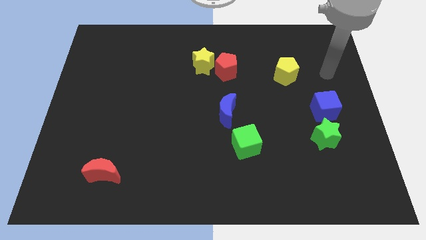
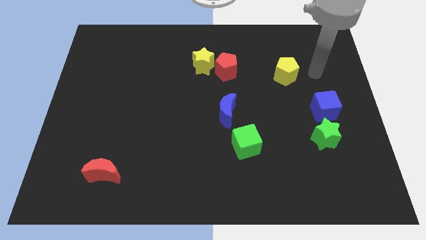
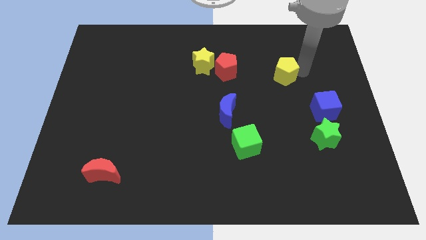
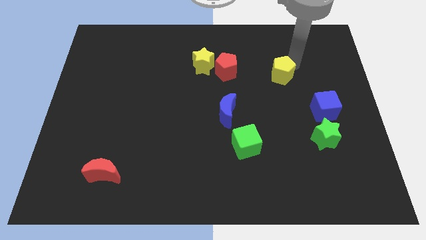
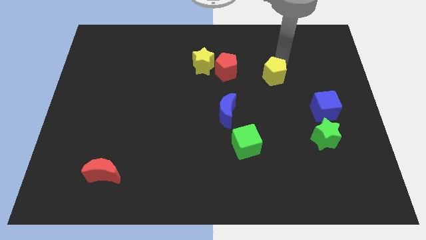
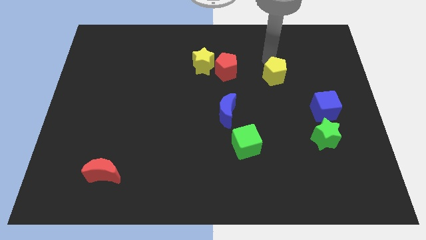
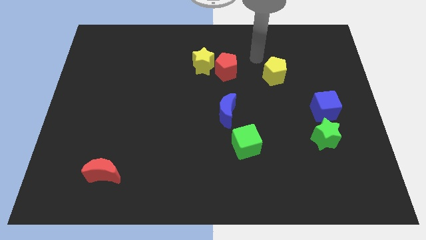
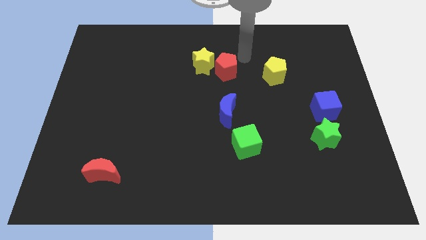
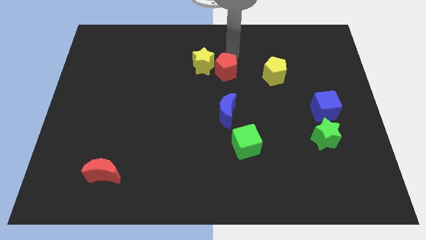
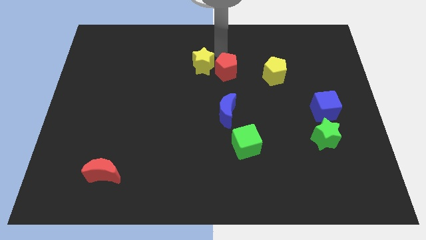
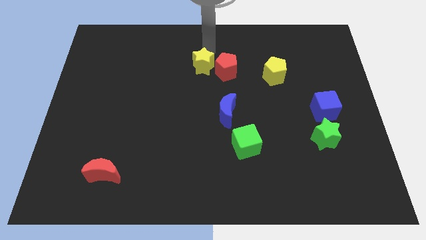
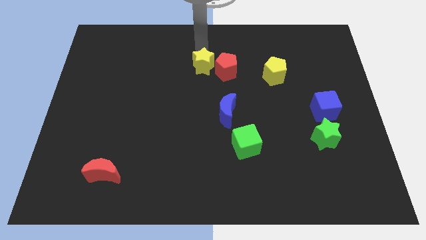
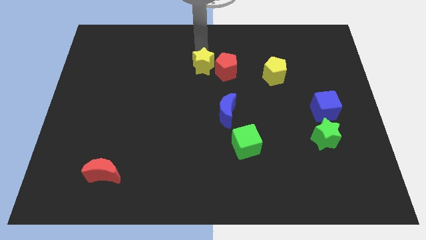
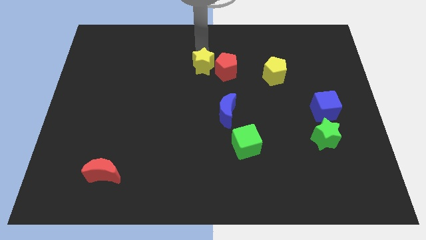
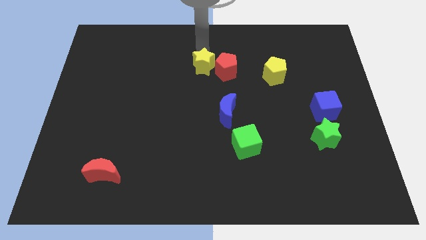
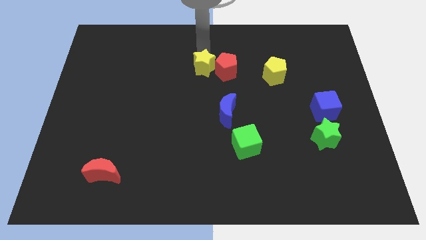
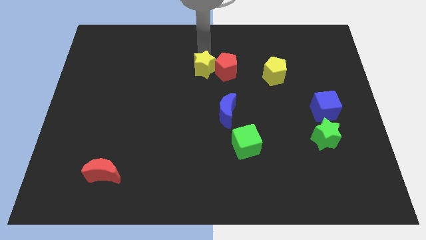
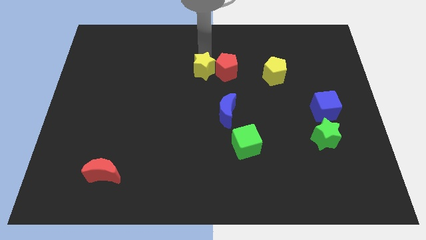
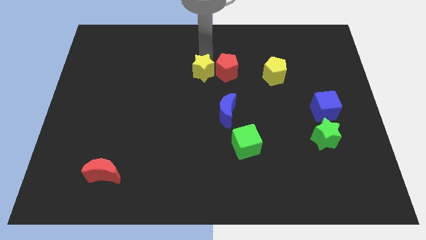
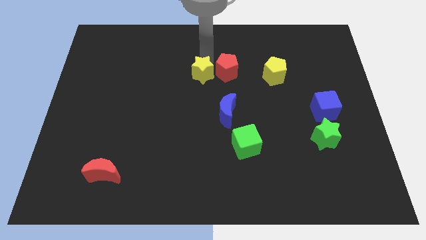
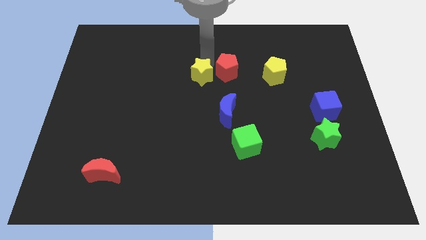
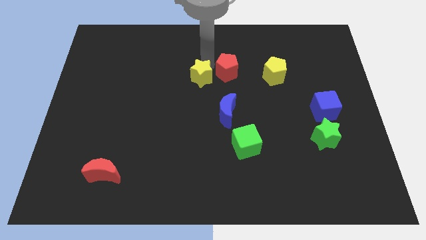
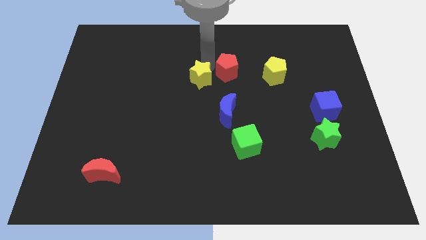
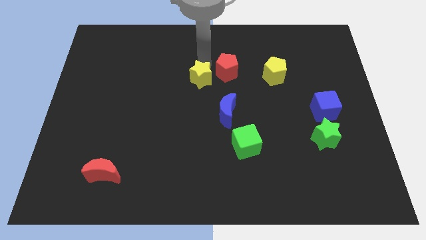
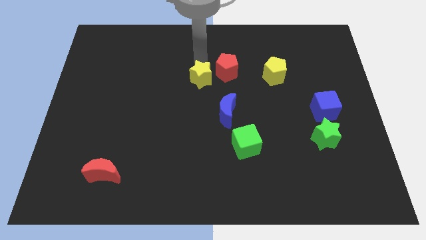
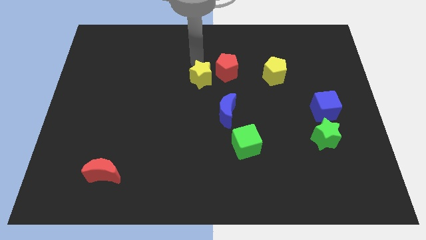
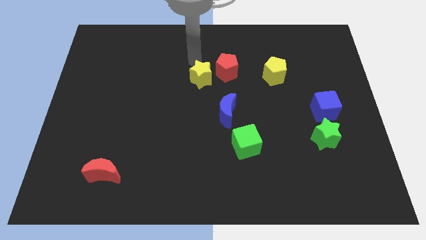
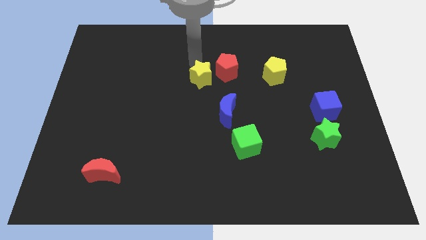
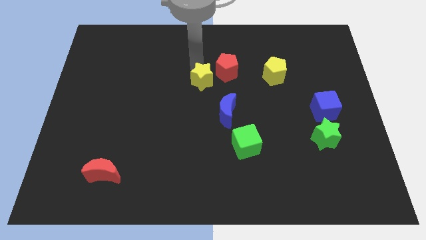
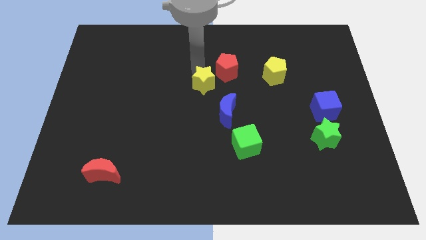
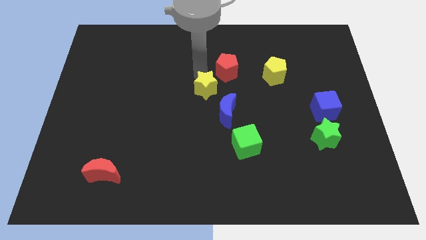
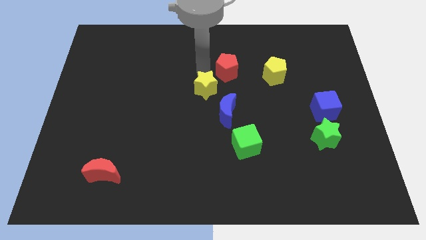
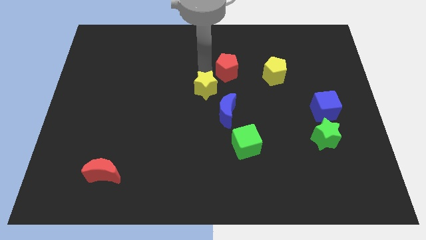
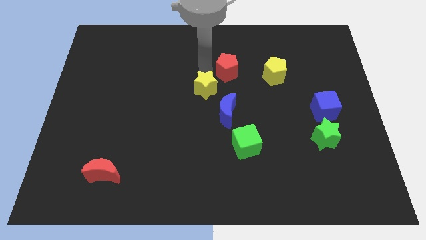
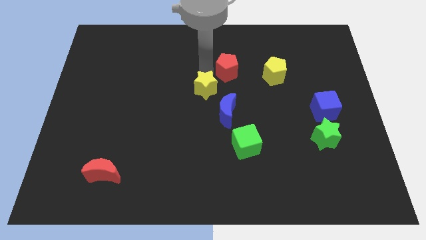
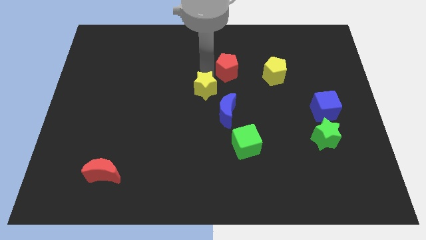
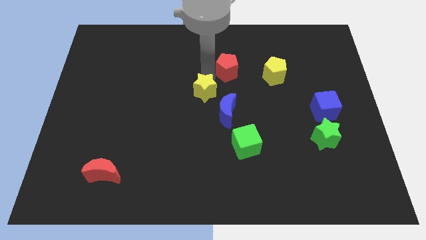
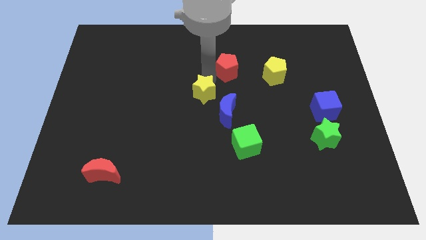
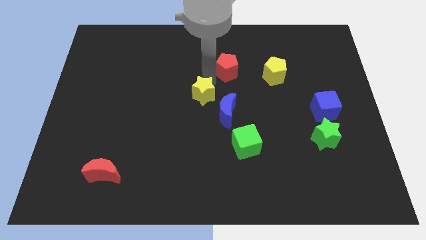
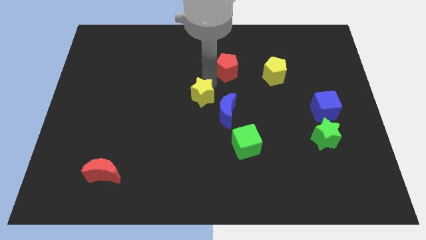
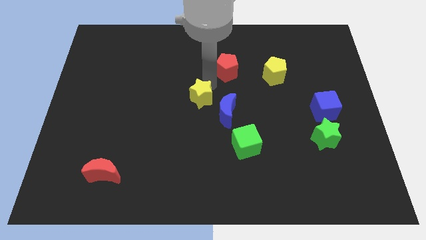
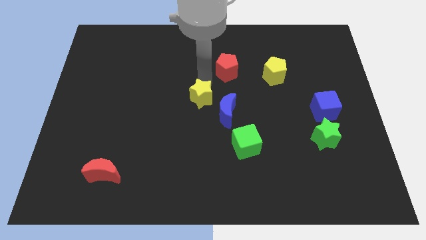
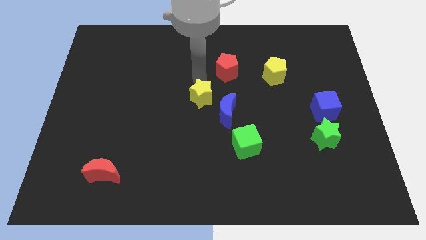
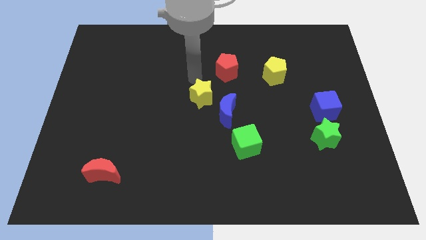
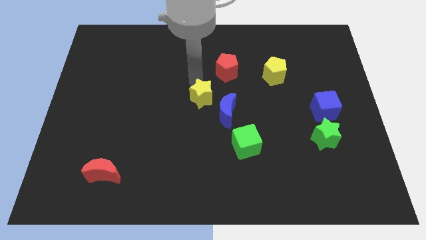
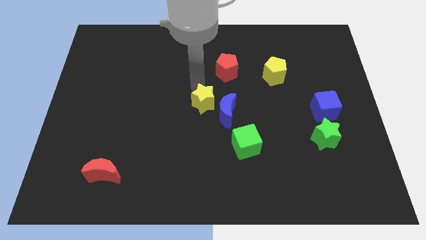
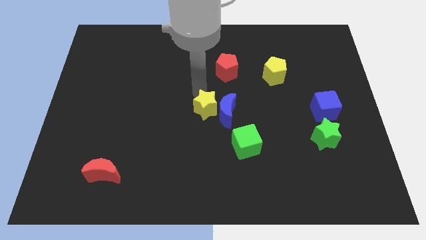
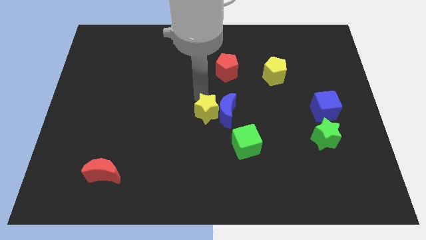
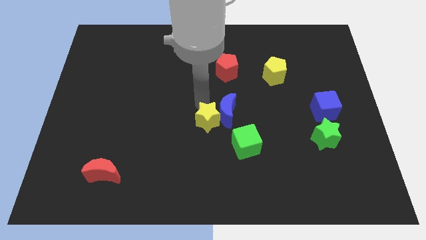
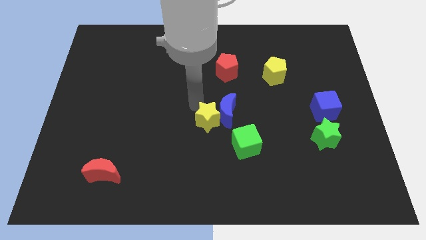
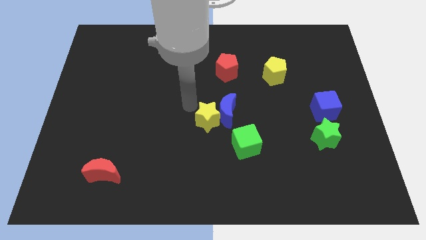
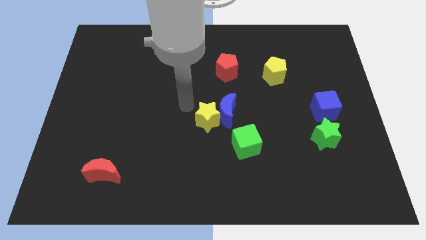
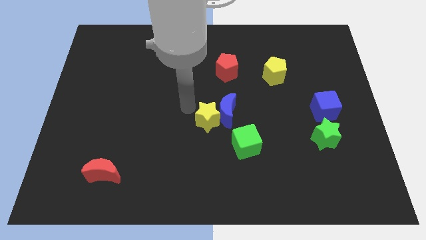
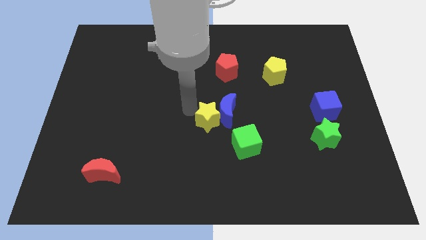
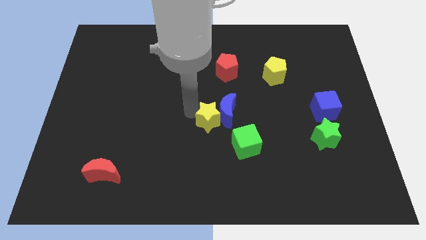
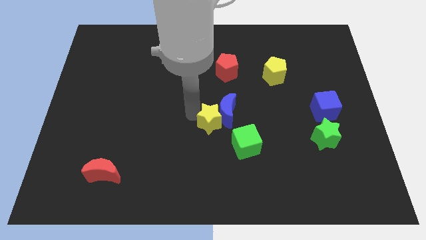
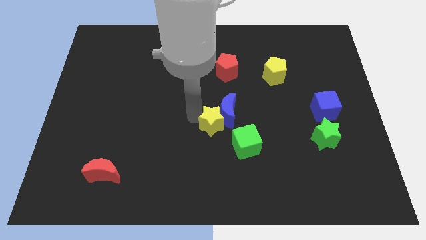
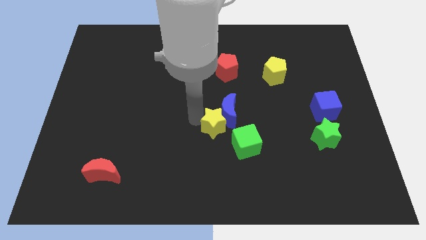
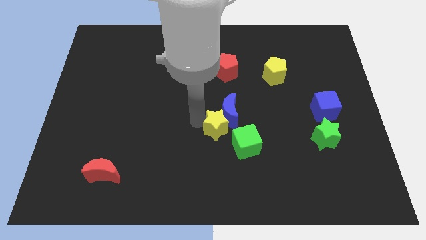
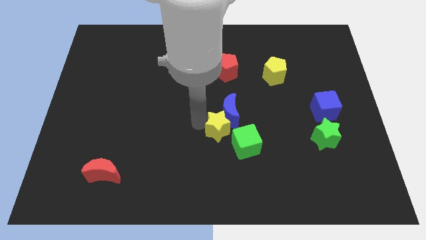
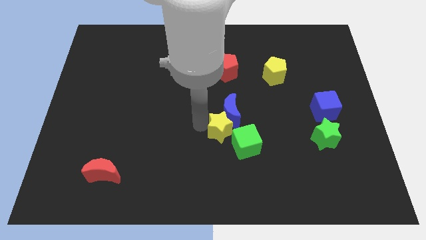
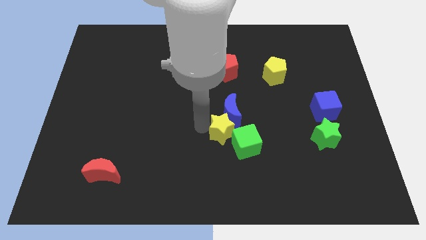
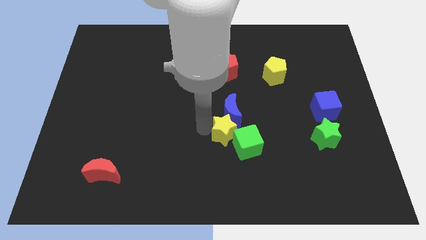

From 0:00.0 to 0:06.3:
move the yellow star close to the green cube

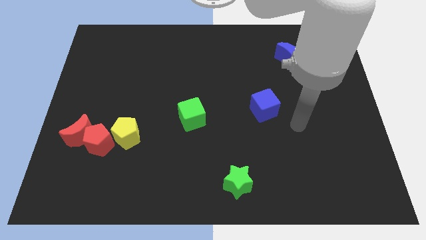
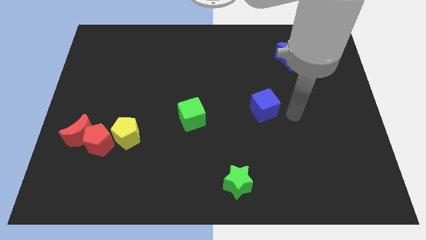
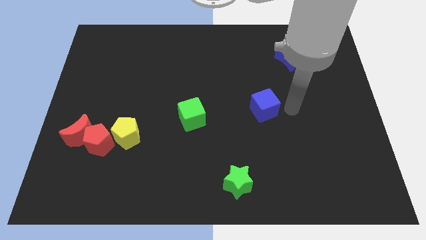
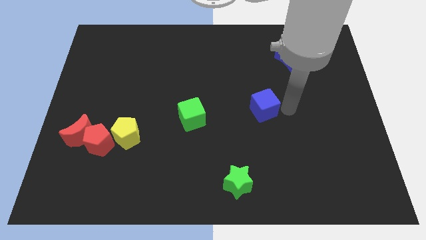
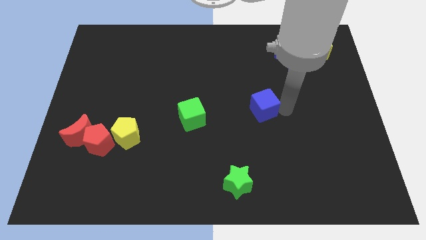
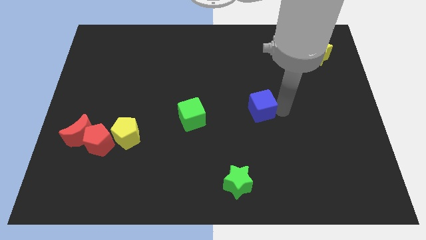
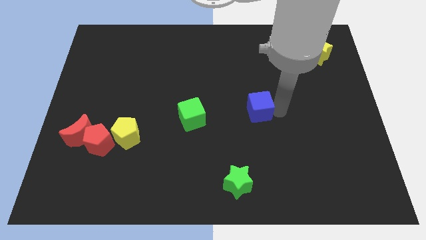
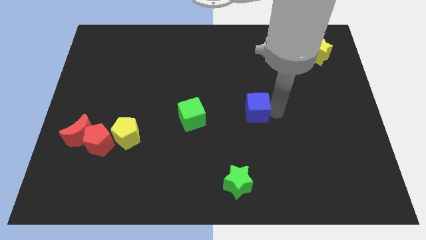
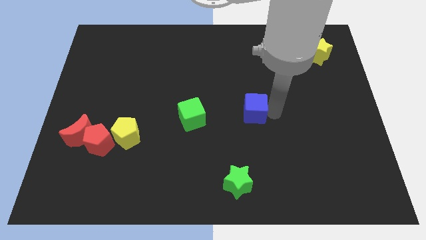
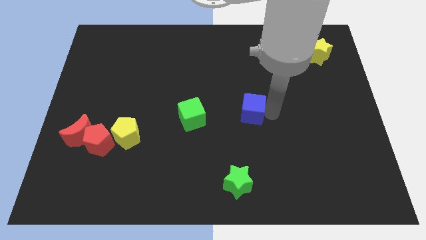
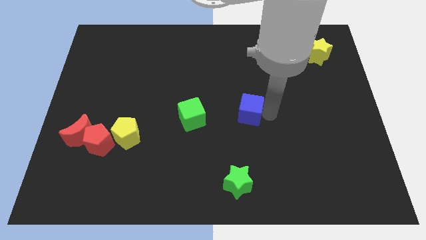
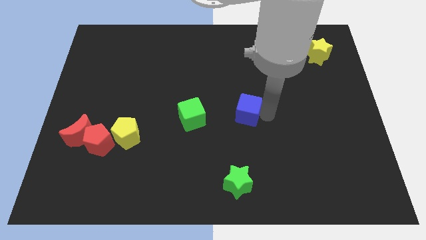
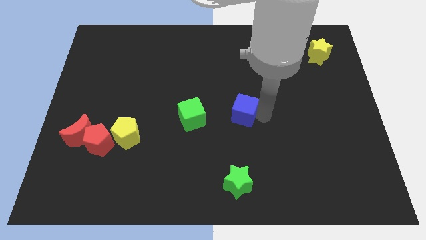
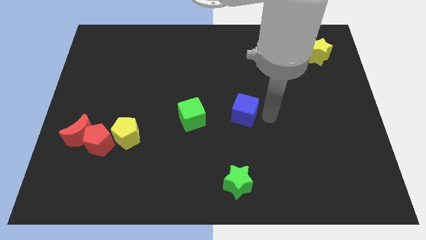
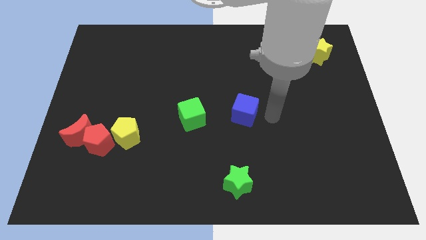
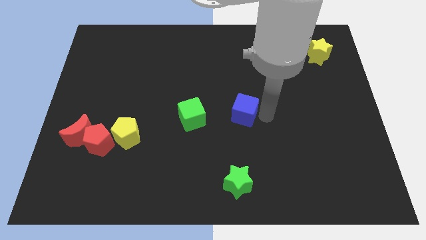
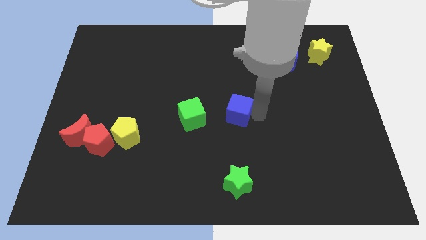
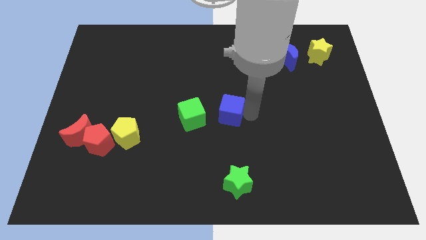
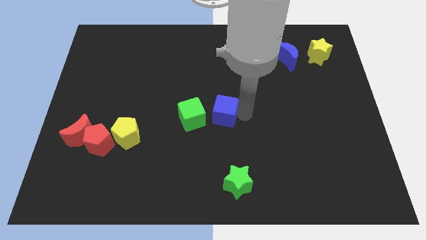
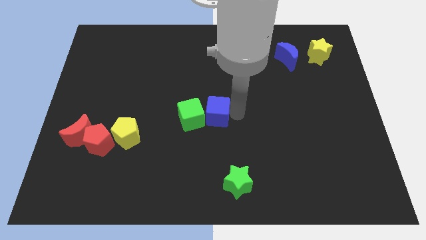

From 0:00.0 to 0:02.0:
put the blue cube towards the green cube
